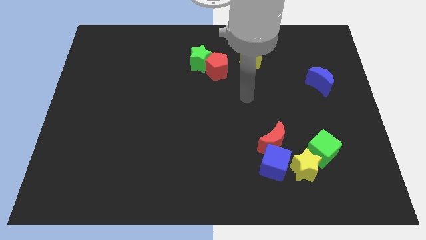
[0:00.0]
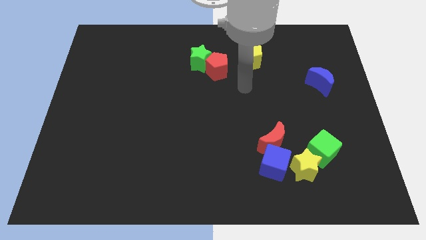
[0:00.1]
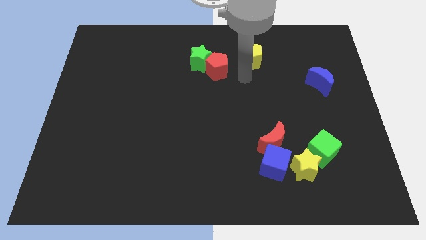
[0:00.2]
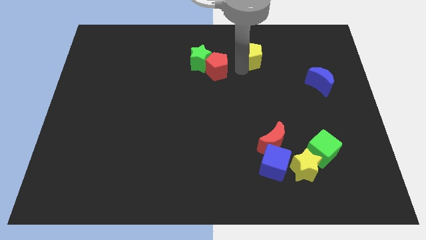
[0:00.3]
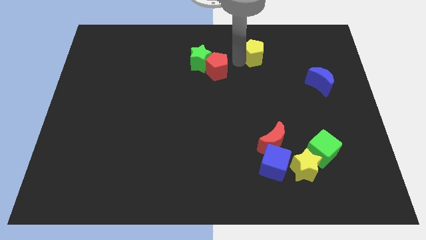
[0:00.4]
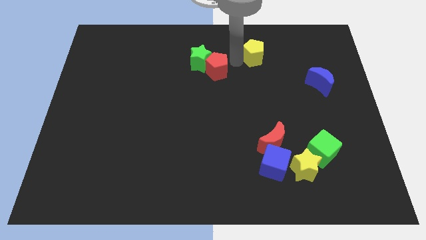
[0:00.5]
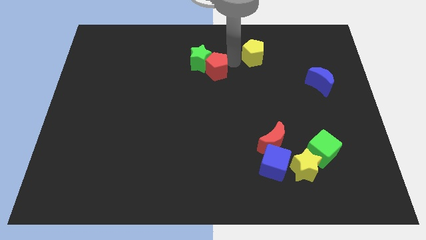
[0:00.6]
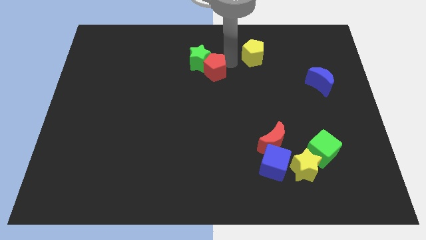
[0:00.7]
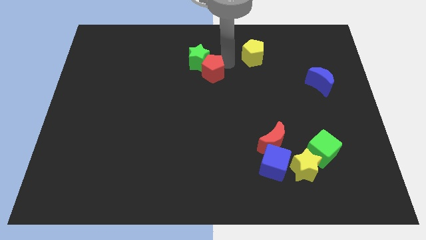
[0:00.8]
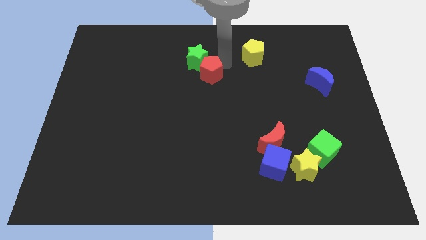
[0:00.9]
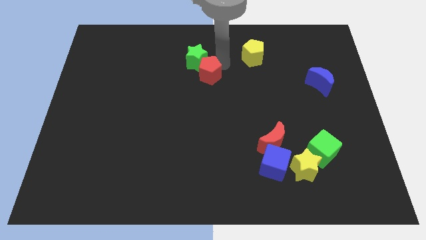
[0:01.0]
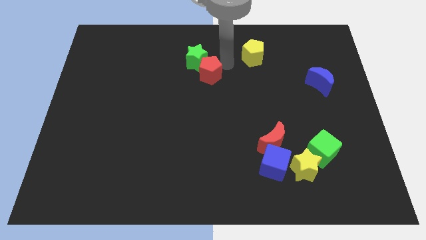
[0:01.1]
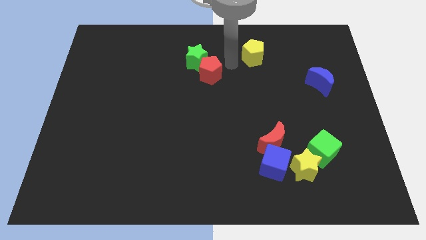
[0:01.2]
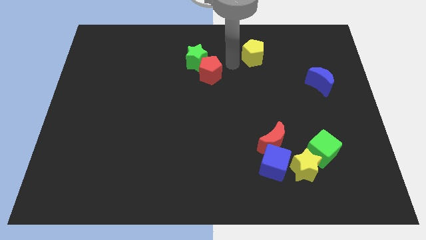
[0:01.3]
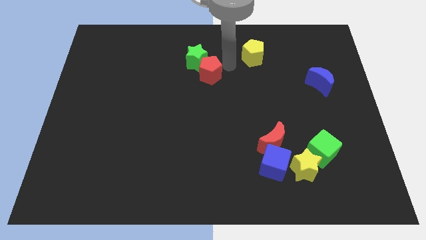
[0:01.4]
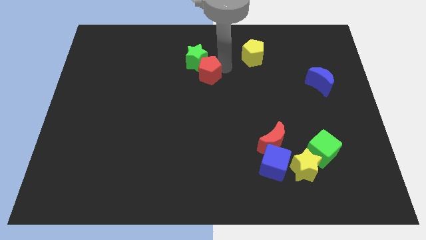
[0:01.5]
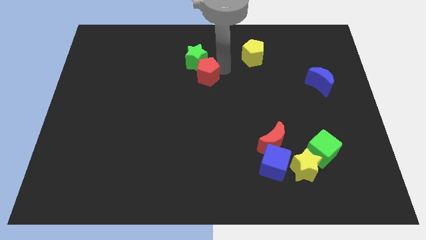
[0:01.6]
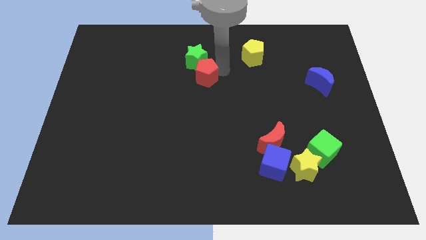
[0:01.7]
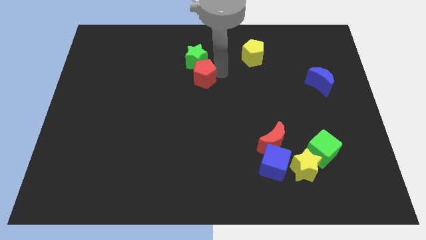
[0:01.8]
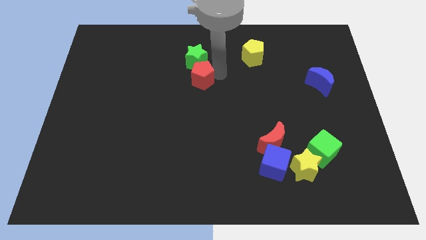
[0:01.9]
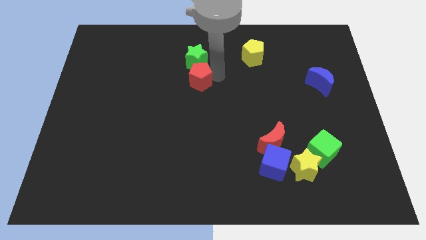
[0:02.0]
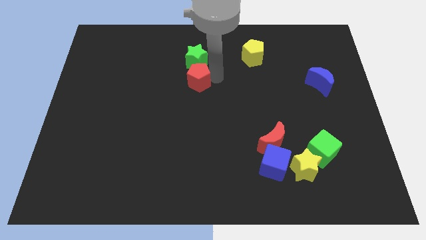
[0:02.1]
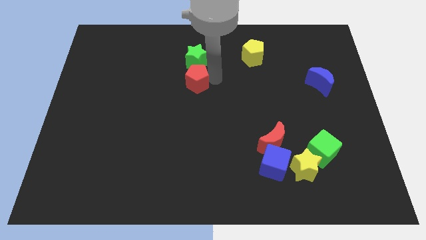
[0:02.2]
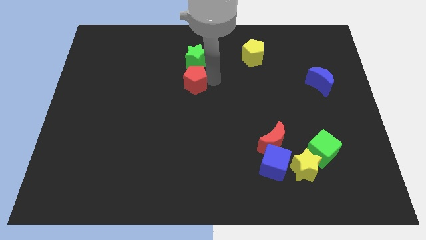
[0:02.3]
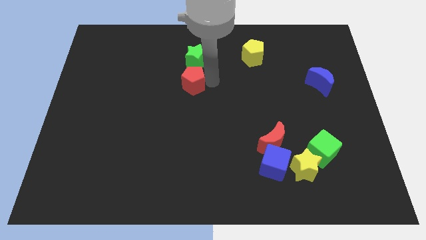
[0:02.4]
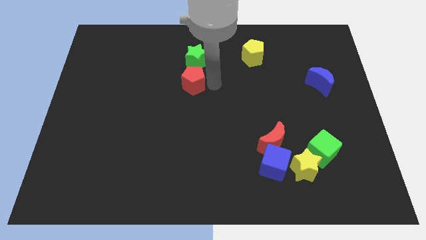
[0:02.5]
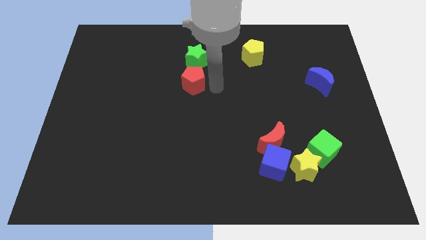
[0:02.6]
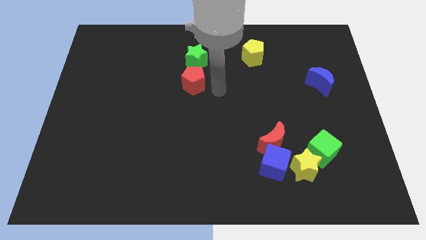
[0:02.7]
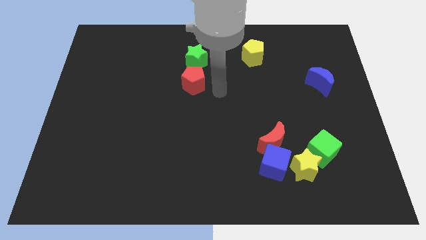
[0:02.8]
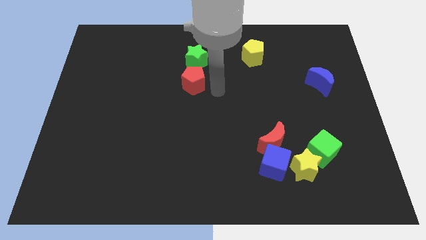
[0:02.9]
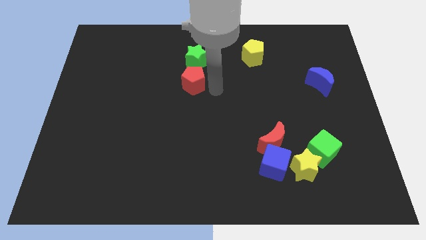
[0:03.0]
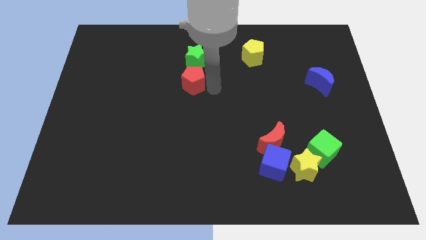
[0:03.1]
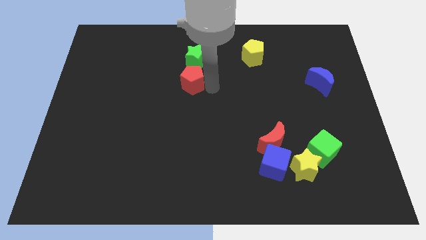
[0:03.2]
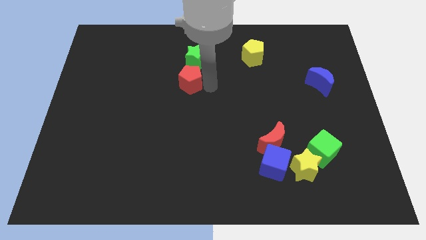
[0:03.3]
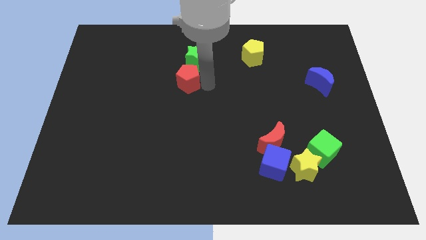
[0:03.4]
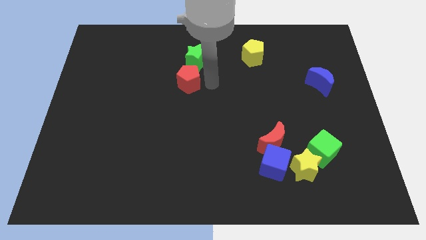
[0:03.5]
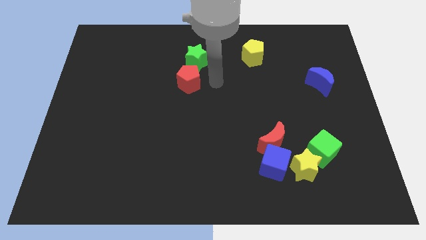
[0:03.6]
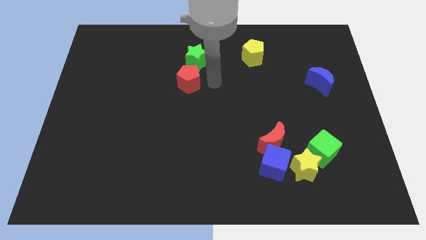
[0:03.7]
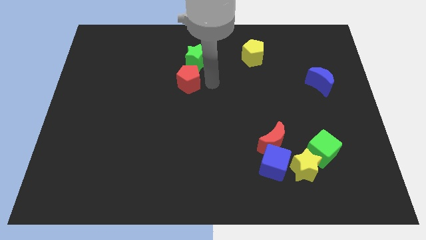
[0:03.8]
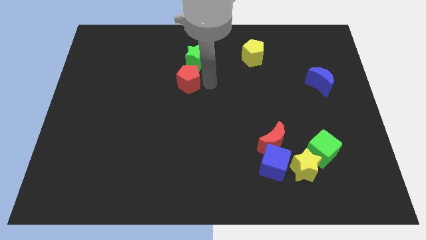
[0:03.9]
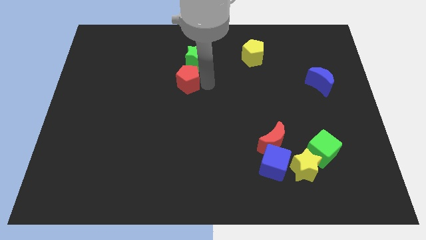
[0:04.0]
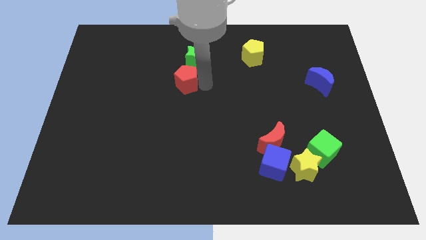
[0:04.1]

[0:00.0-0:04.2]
move the red pentagon left slightly

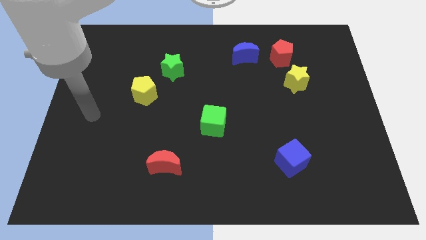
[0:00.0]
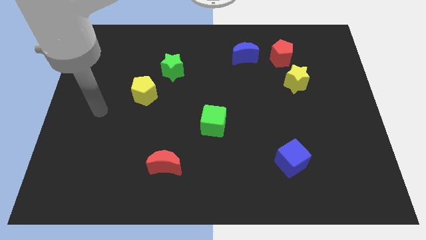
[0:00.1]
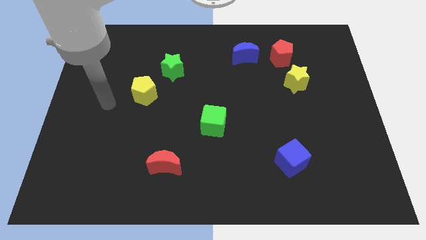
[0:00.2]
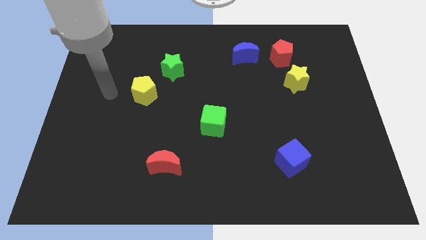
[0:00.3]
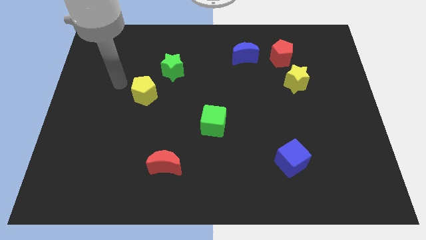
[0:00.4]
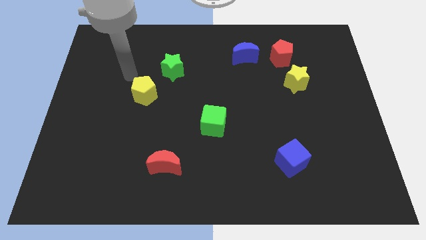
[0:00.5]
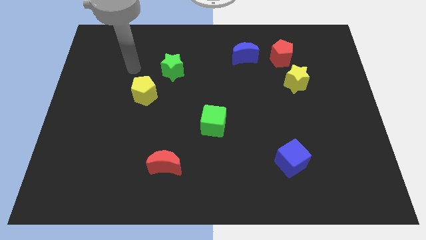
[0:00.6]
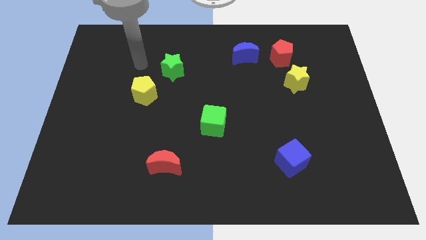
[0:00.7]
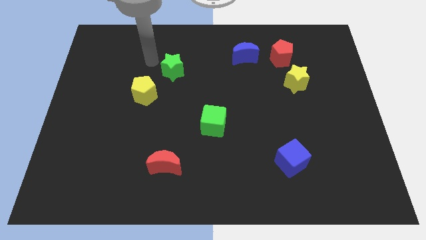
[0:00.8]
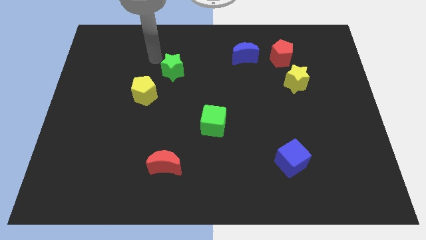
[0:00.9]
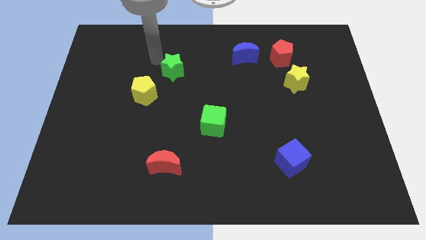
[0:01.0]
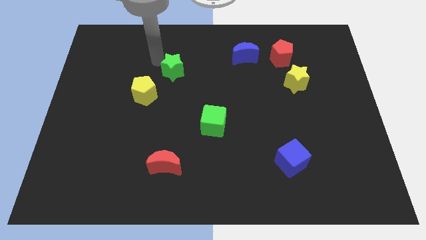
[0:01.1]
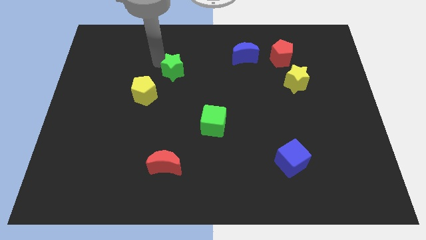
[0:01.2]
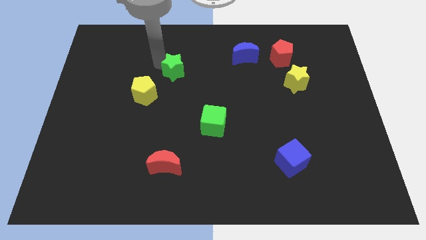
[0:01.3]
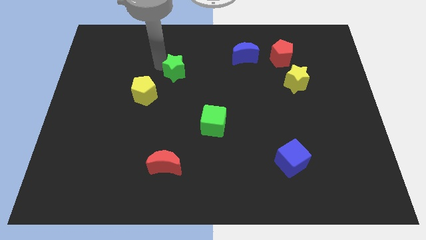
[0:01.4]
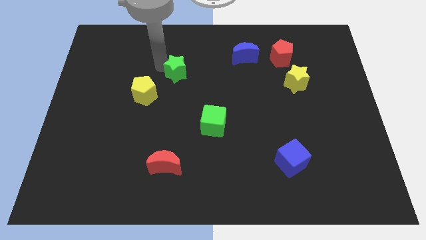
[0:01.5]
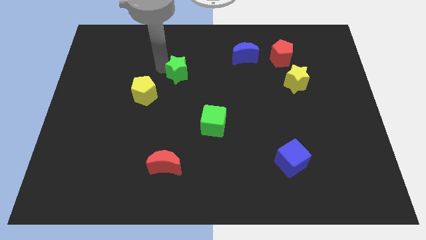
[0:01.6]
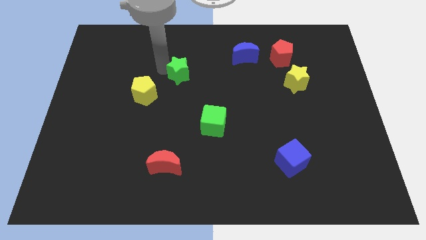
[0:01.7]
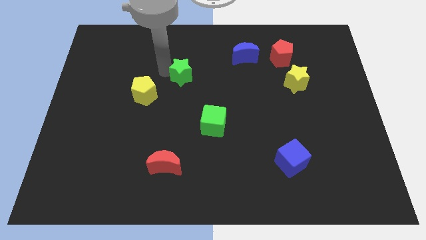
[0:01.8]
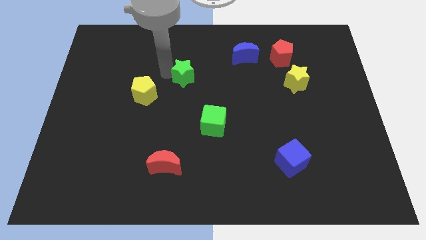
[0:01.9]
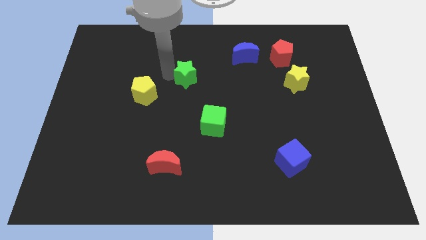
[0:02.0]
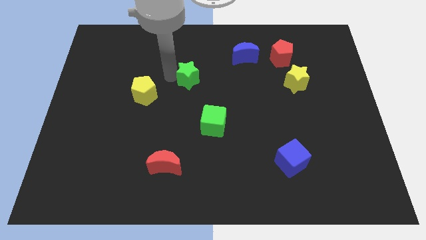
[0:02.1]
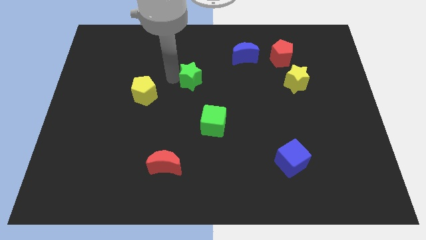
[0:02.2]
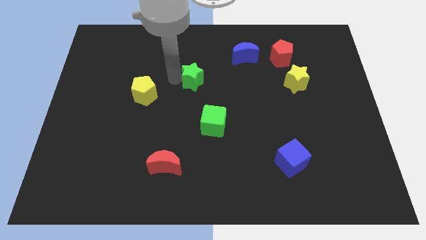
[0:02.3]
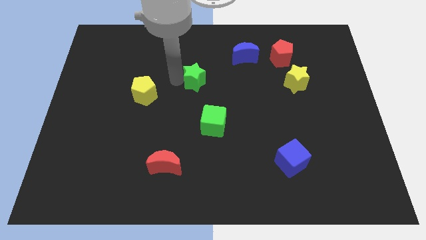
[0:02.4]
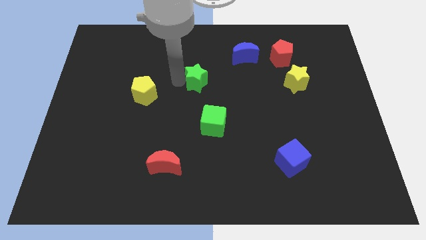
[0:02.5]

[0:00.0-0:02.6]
slightly slide the green star down and to the right

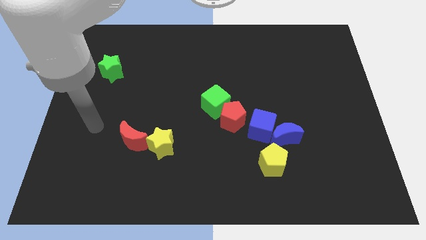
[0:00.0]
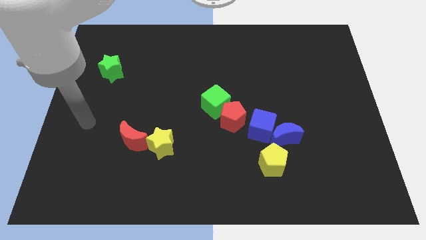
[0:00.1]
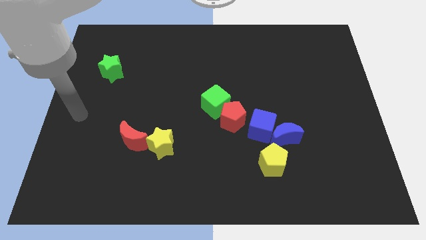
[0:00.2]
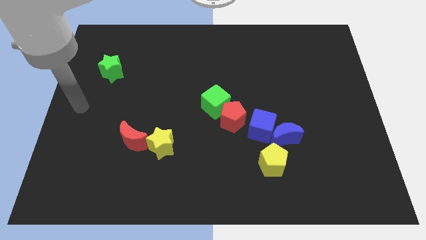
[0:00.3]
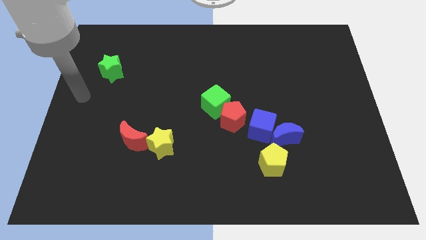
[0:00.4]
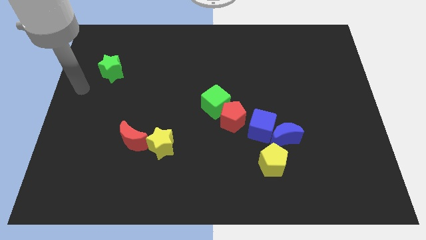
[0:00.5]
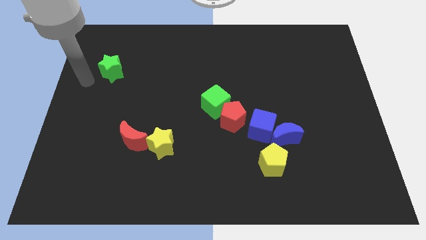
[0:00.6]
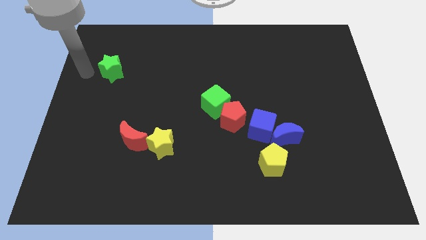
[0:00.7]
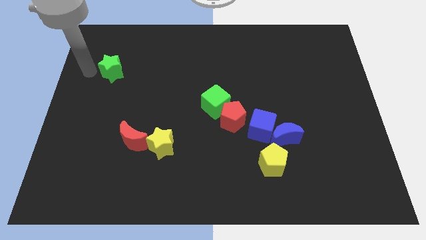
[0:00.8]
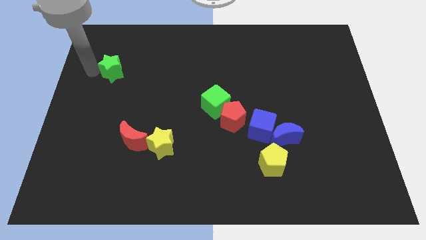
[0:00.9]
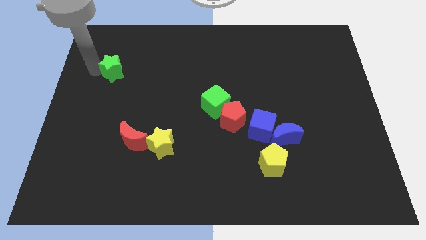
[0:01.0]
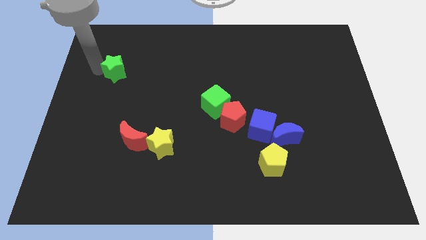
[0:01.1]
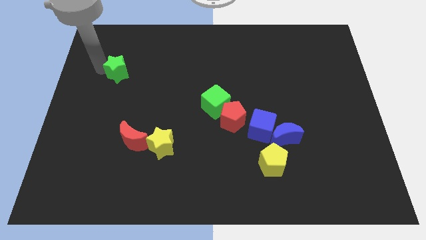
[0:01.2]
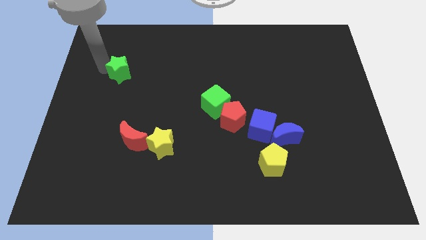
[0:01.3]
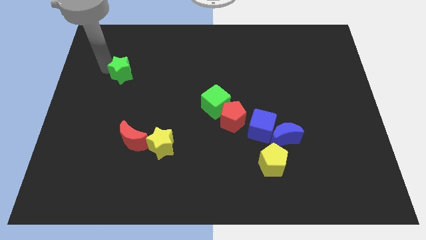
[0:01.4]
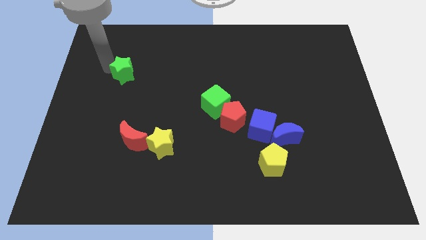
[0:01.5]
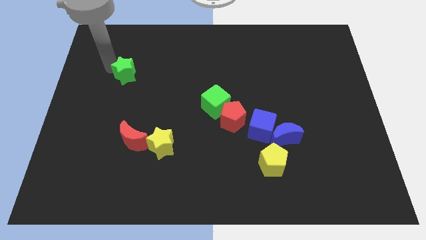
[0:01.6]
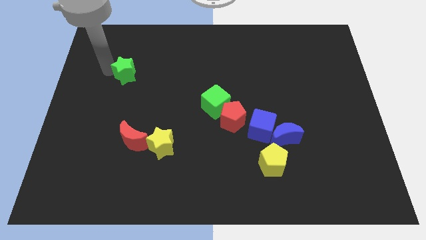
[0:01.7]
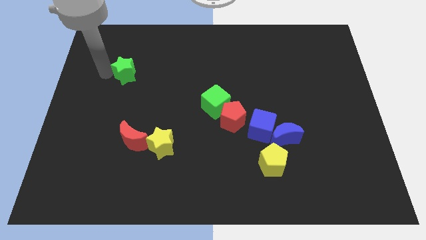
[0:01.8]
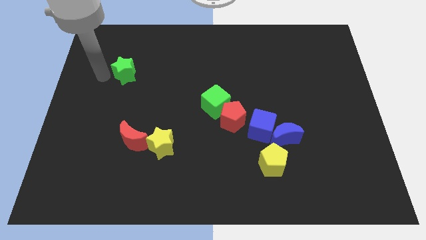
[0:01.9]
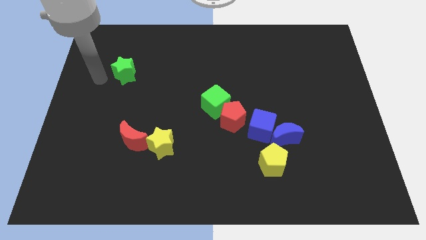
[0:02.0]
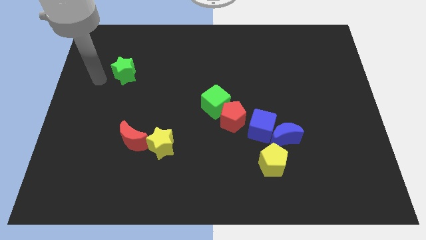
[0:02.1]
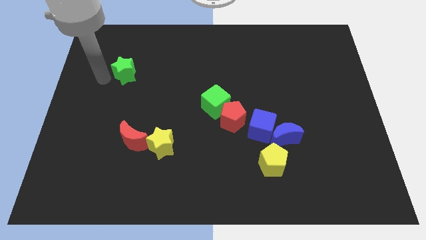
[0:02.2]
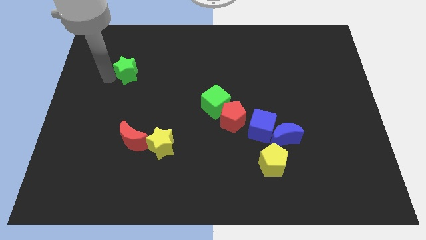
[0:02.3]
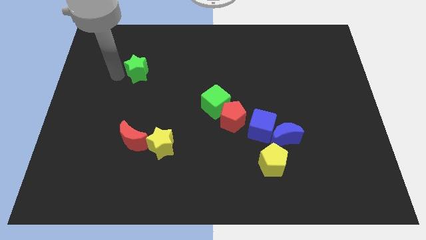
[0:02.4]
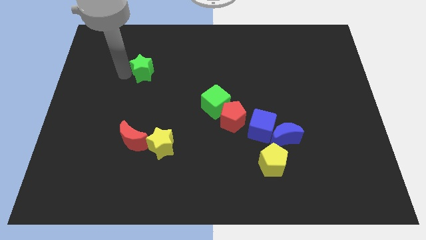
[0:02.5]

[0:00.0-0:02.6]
push the green star slightly to the right
